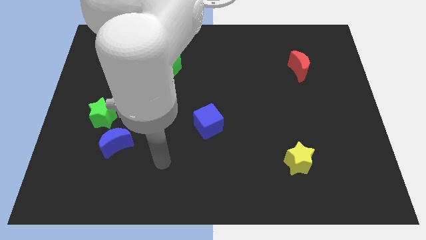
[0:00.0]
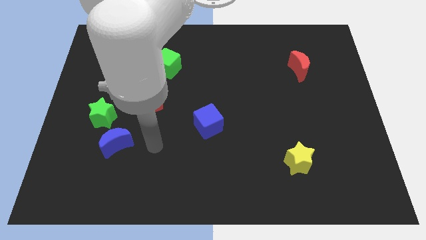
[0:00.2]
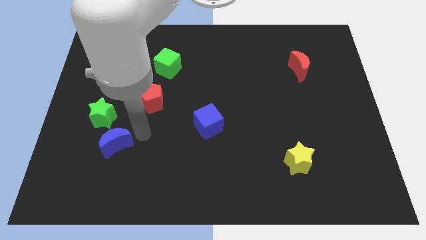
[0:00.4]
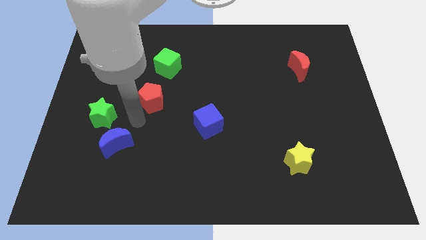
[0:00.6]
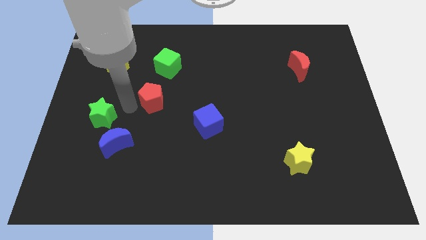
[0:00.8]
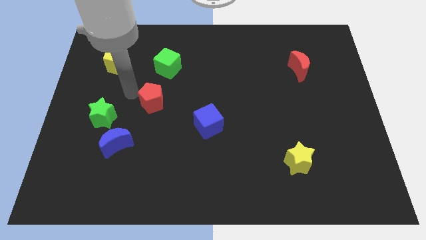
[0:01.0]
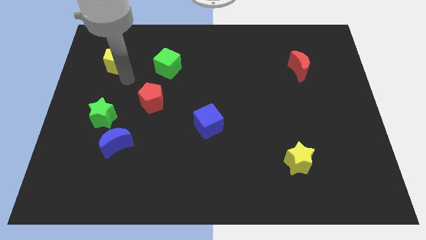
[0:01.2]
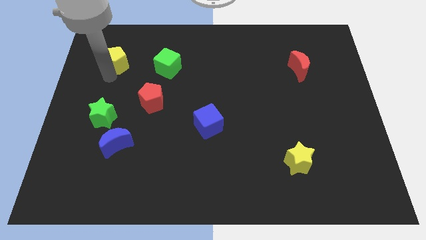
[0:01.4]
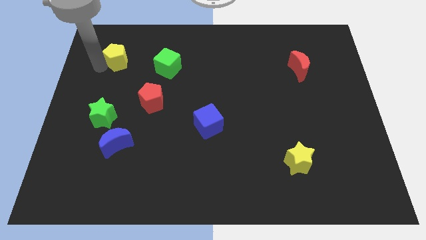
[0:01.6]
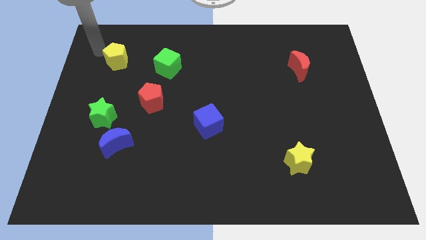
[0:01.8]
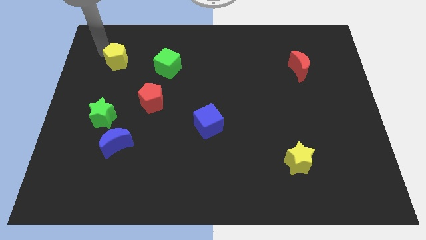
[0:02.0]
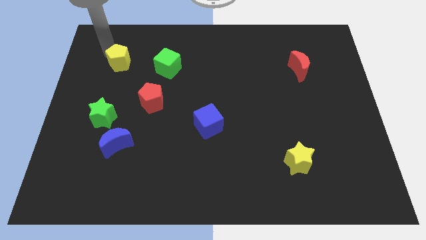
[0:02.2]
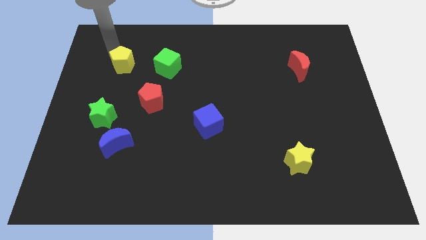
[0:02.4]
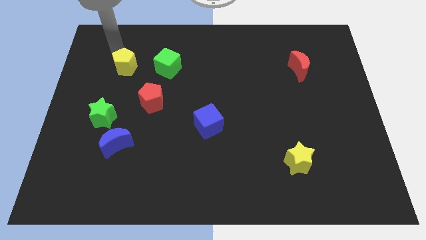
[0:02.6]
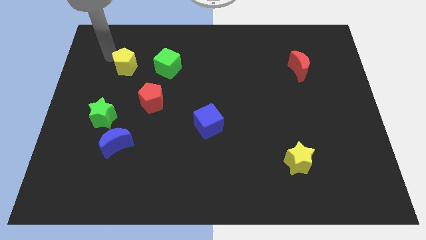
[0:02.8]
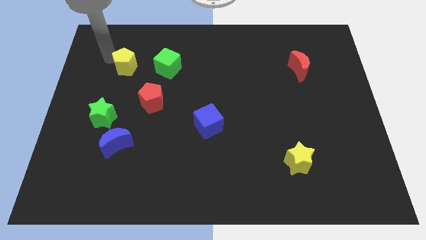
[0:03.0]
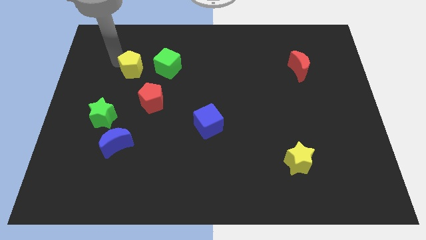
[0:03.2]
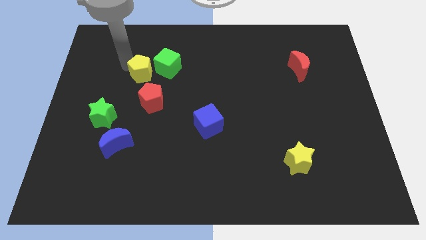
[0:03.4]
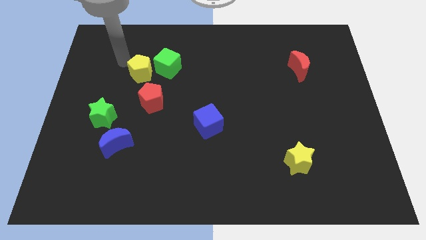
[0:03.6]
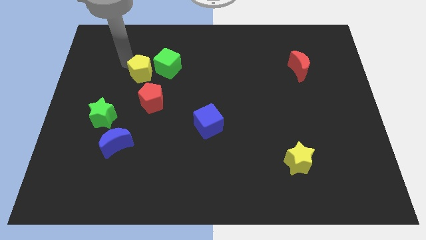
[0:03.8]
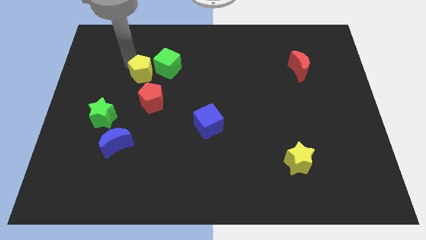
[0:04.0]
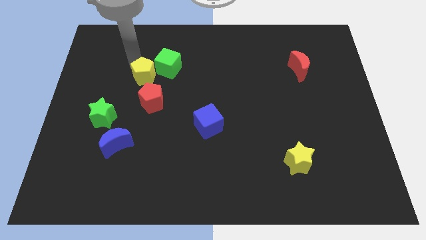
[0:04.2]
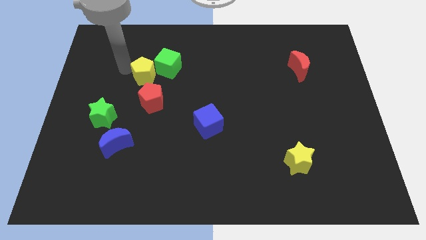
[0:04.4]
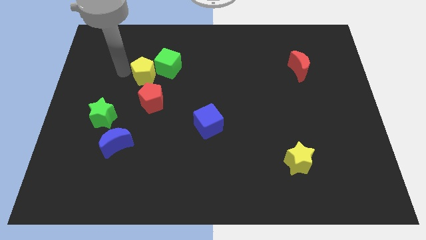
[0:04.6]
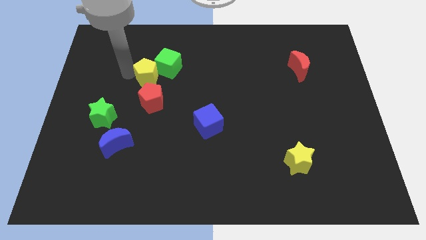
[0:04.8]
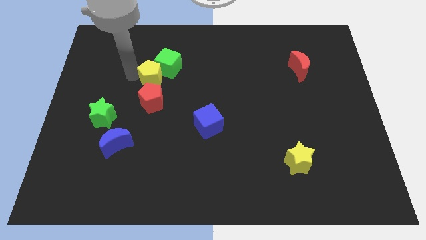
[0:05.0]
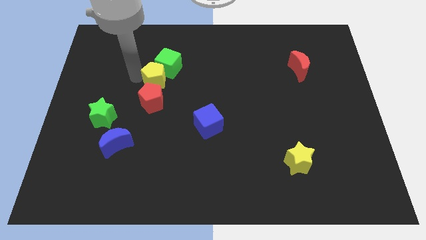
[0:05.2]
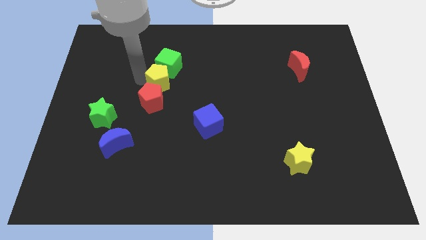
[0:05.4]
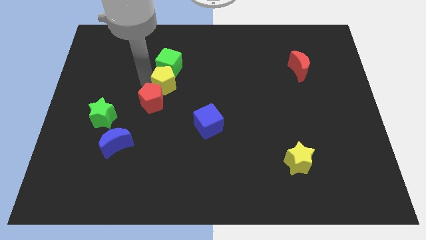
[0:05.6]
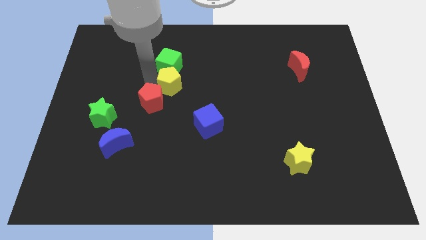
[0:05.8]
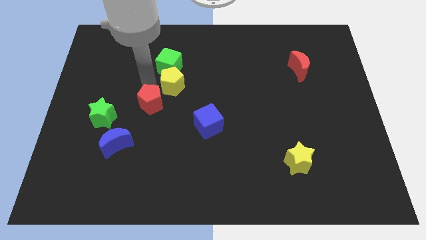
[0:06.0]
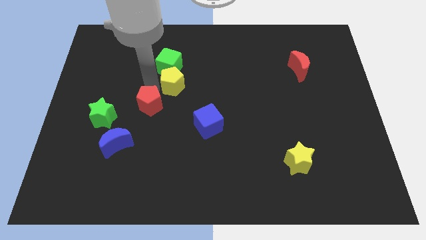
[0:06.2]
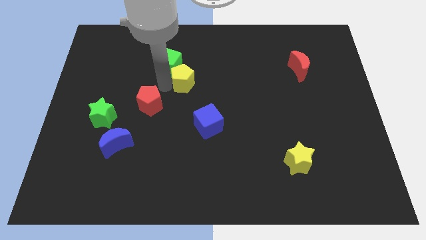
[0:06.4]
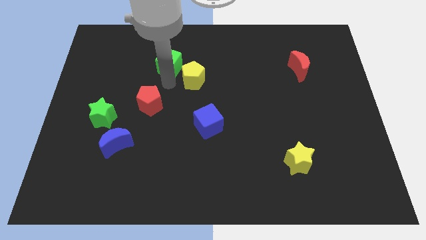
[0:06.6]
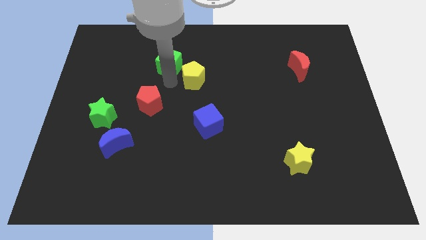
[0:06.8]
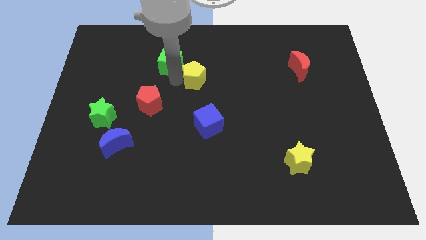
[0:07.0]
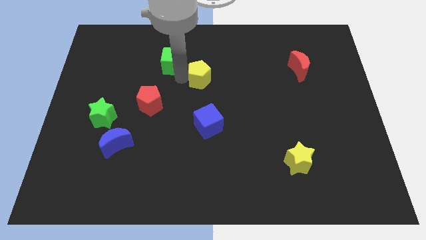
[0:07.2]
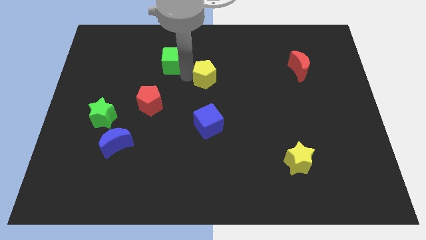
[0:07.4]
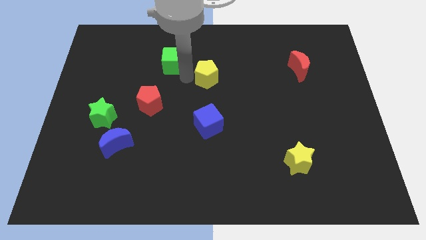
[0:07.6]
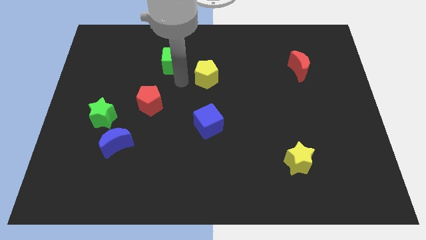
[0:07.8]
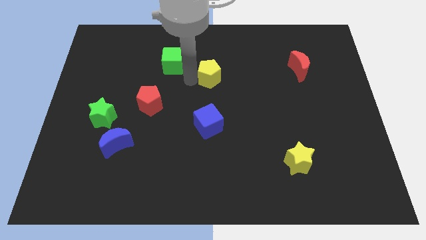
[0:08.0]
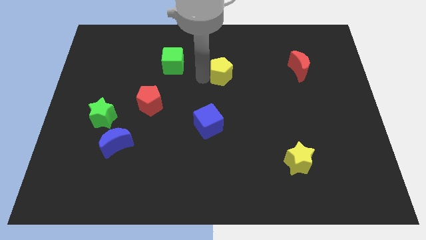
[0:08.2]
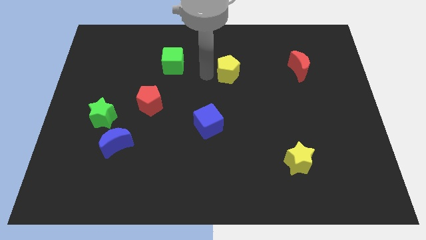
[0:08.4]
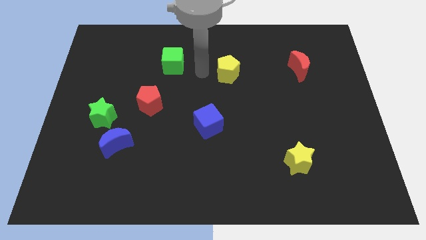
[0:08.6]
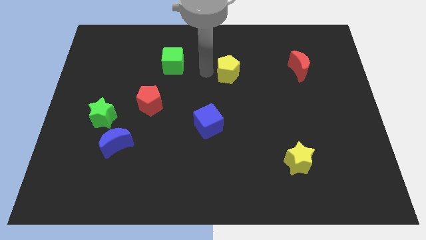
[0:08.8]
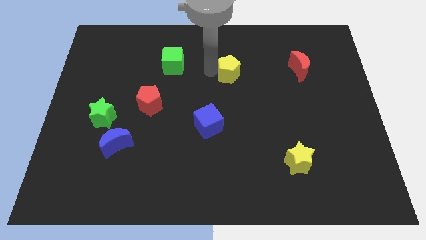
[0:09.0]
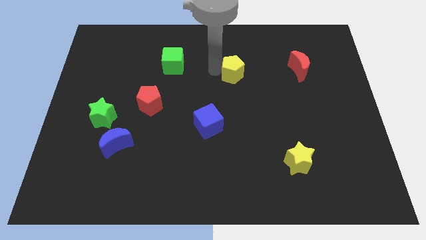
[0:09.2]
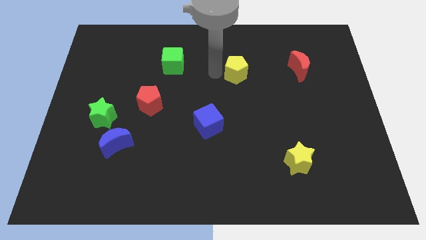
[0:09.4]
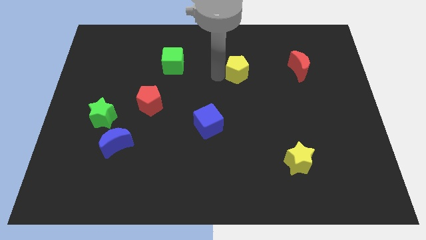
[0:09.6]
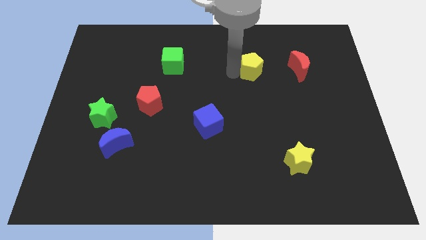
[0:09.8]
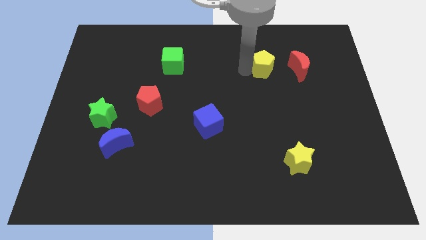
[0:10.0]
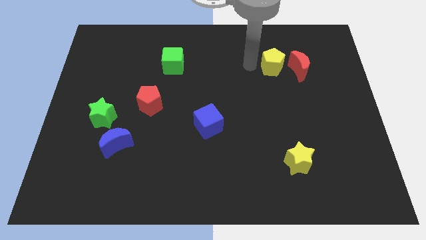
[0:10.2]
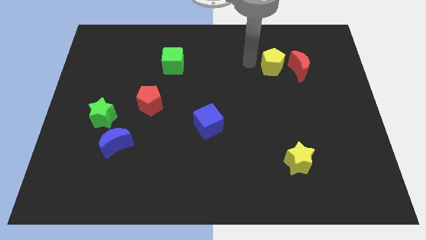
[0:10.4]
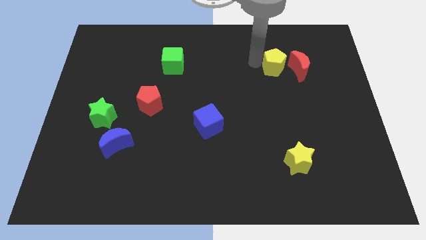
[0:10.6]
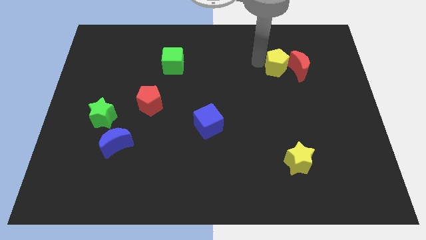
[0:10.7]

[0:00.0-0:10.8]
push the yellow pentagon towards the red moon

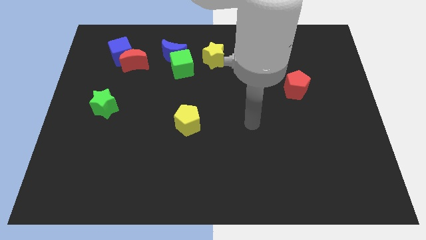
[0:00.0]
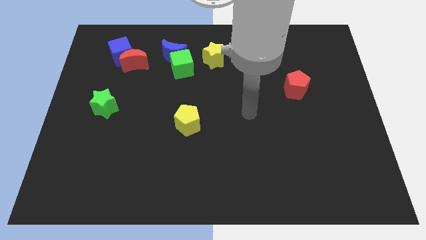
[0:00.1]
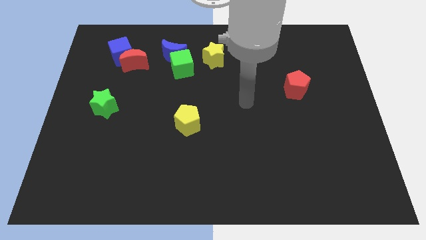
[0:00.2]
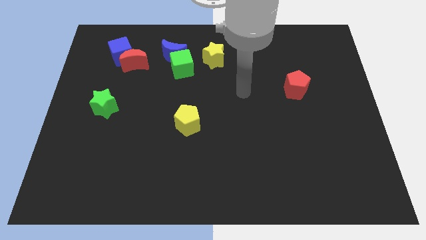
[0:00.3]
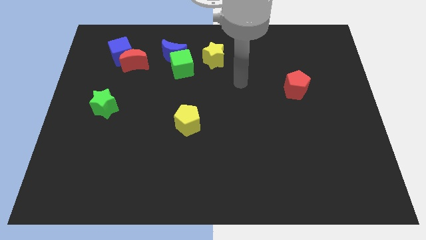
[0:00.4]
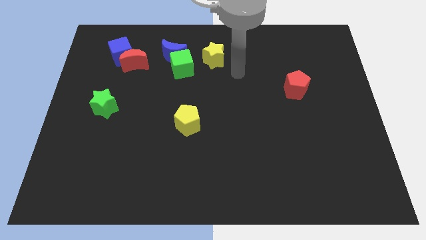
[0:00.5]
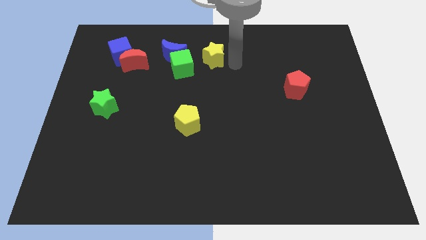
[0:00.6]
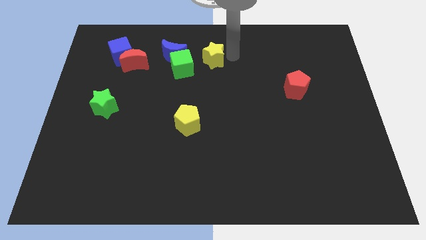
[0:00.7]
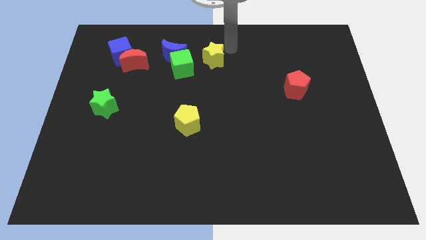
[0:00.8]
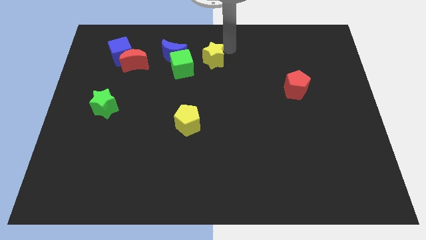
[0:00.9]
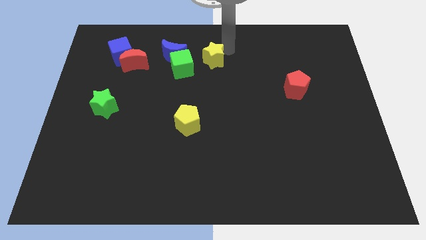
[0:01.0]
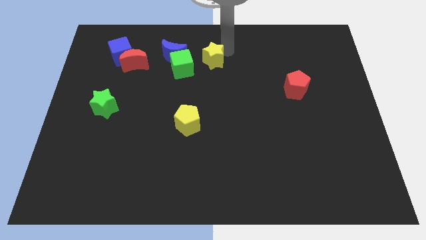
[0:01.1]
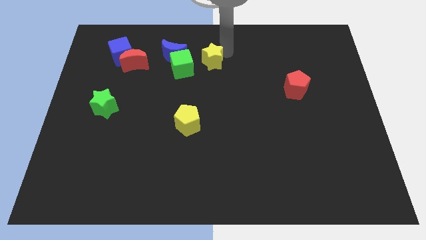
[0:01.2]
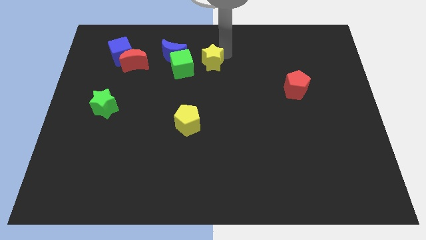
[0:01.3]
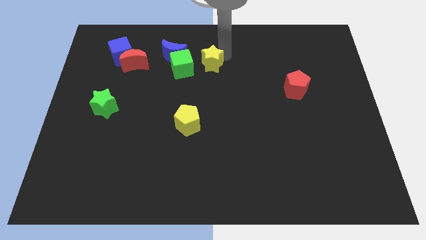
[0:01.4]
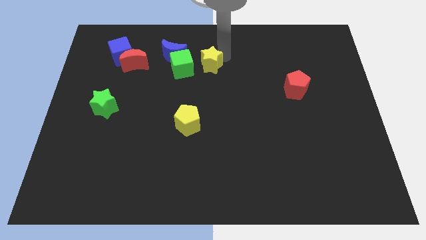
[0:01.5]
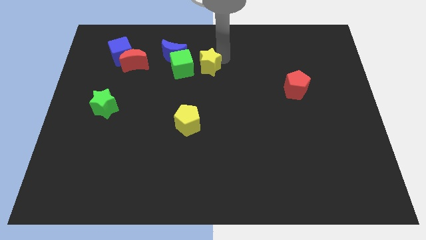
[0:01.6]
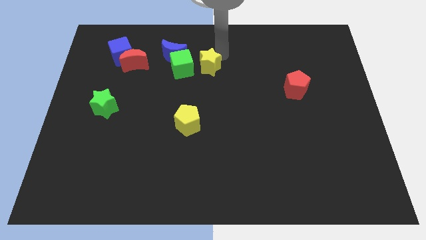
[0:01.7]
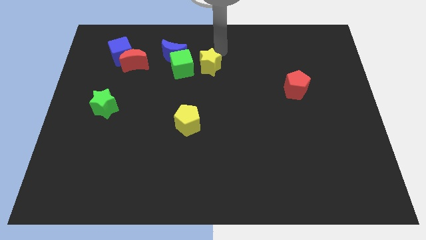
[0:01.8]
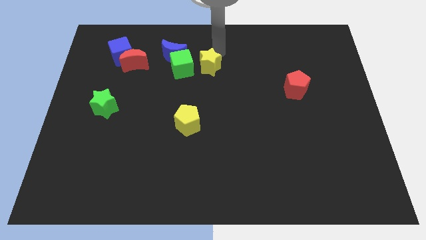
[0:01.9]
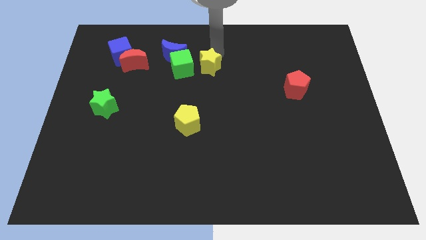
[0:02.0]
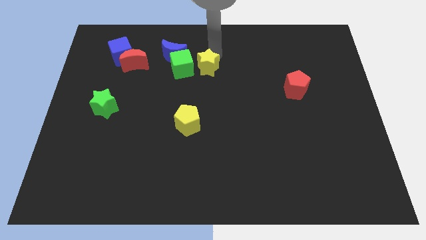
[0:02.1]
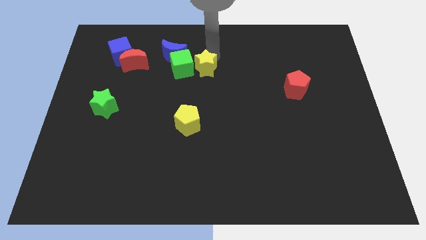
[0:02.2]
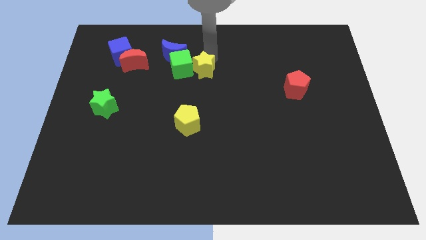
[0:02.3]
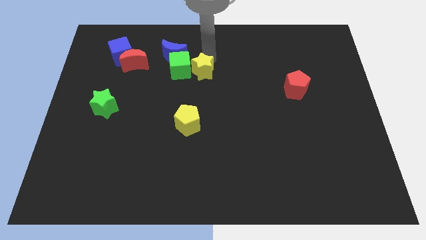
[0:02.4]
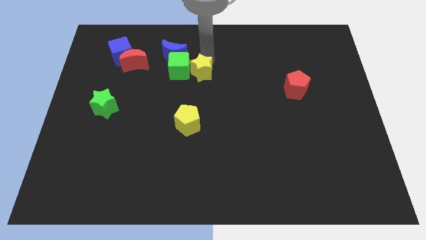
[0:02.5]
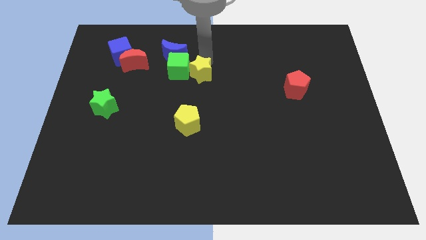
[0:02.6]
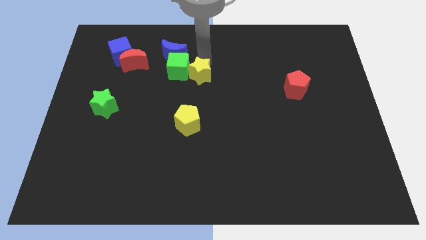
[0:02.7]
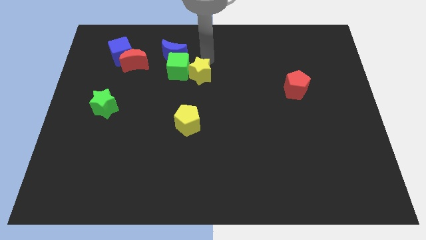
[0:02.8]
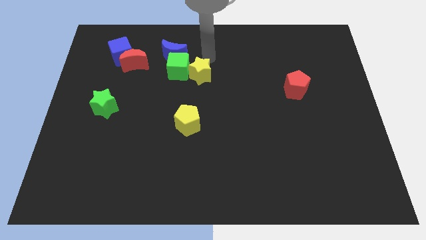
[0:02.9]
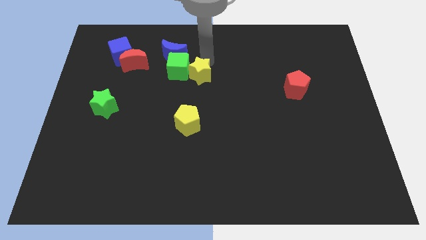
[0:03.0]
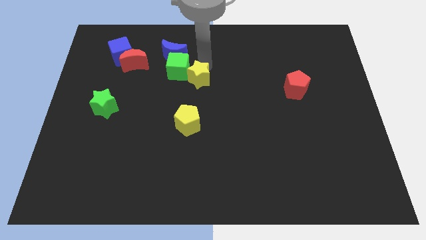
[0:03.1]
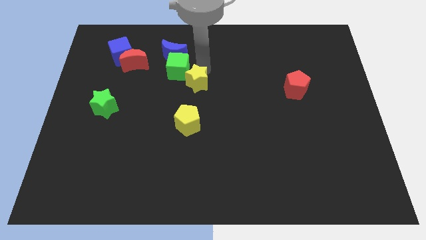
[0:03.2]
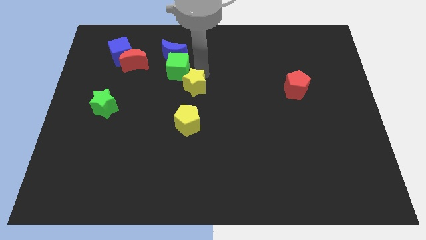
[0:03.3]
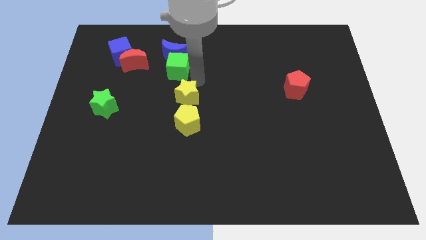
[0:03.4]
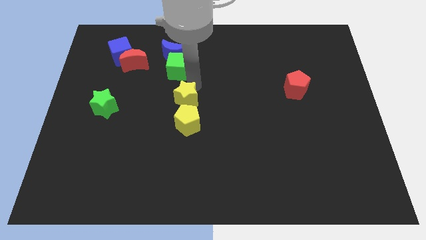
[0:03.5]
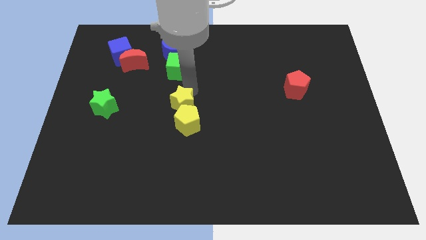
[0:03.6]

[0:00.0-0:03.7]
move the yellow star close to the yellow pentagon
